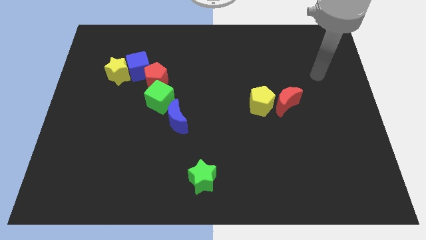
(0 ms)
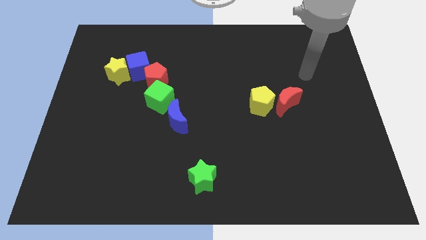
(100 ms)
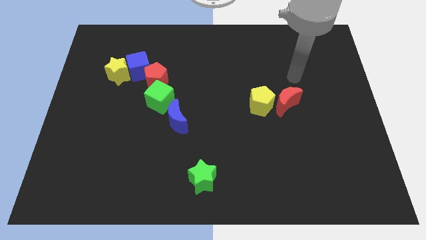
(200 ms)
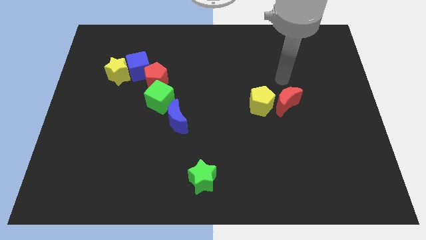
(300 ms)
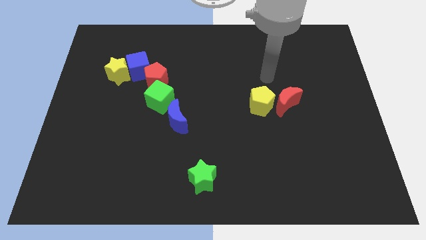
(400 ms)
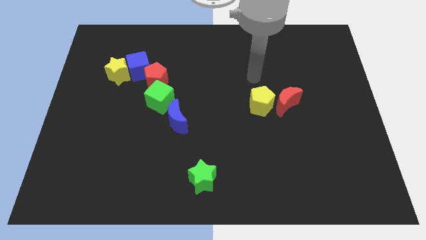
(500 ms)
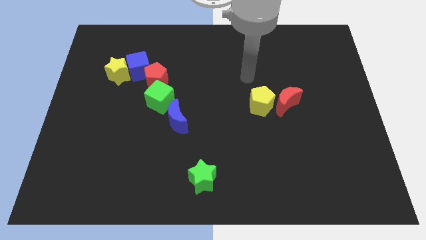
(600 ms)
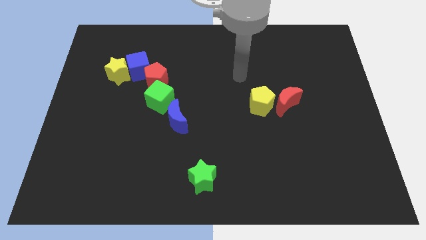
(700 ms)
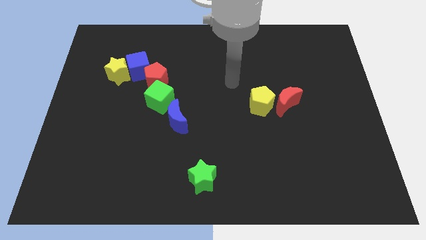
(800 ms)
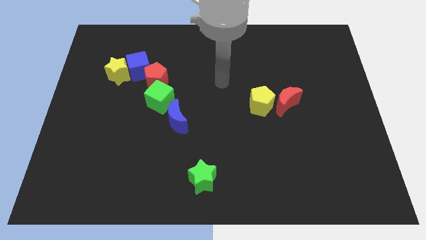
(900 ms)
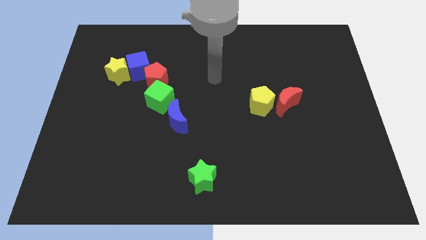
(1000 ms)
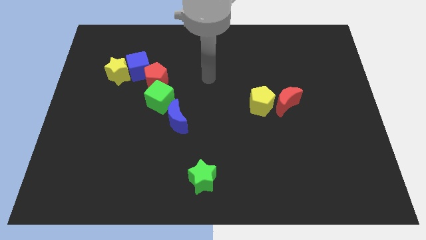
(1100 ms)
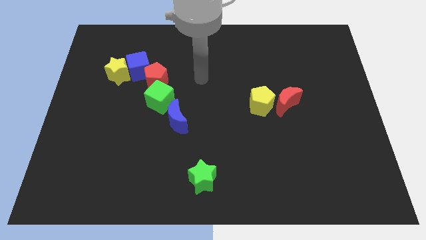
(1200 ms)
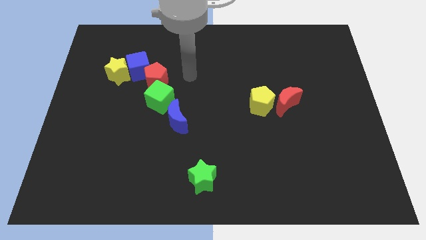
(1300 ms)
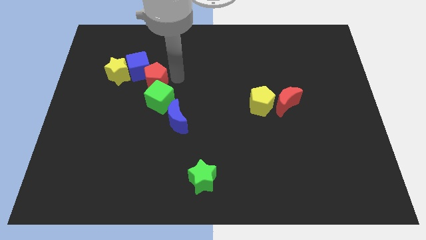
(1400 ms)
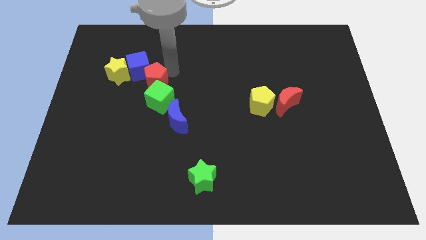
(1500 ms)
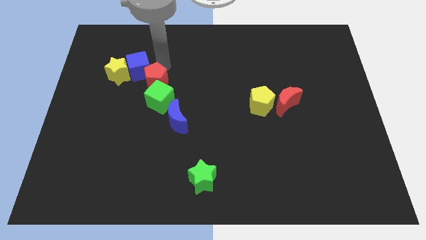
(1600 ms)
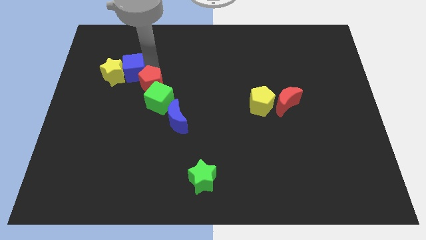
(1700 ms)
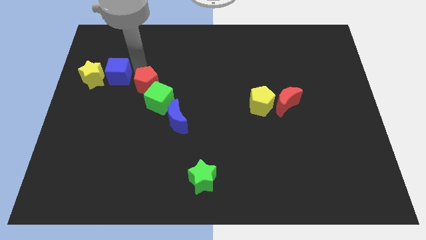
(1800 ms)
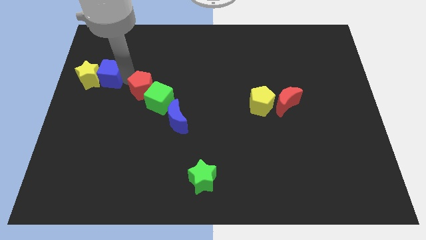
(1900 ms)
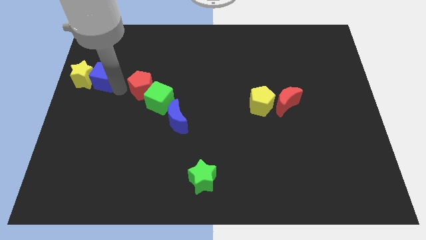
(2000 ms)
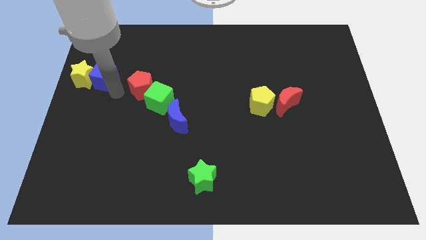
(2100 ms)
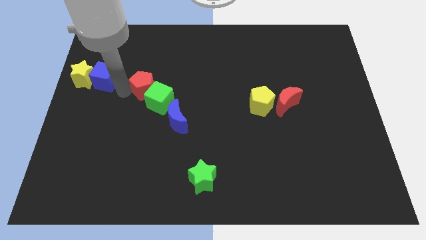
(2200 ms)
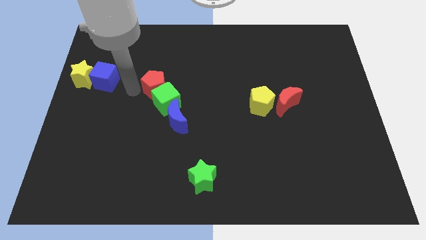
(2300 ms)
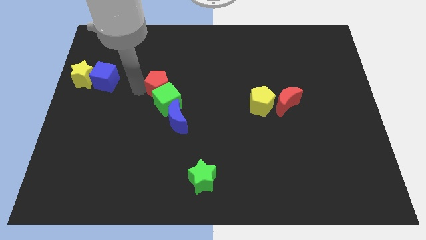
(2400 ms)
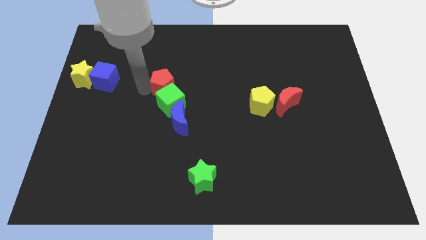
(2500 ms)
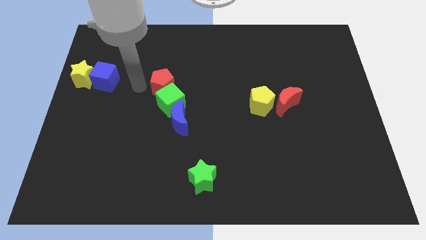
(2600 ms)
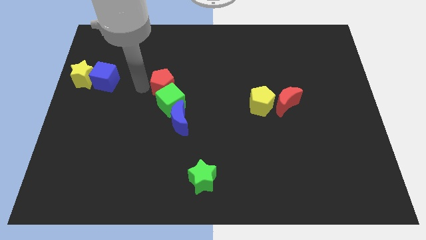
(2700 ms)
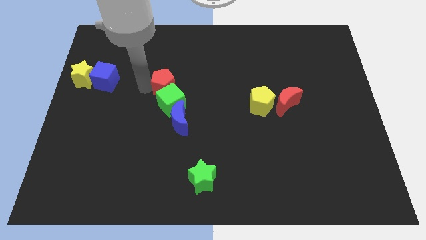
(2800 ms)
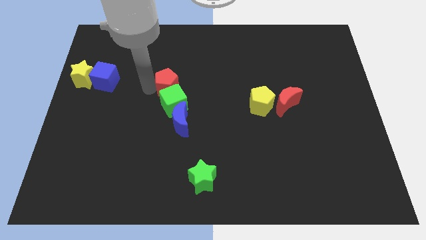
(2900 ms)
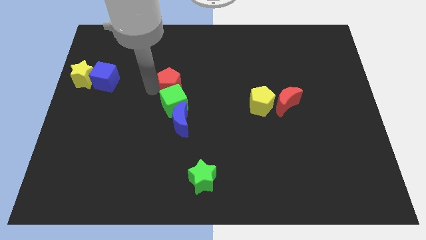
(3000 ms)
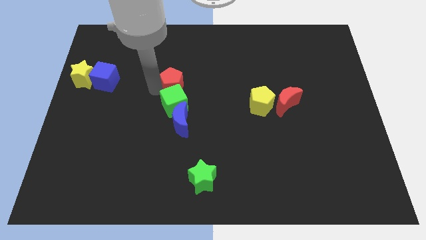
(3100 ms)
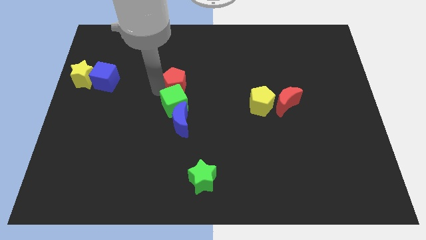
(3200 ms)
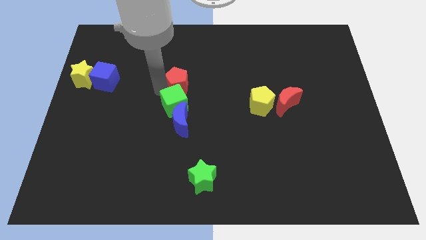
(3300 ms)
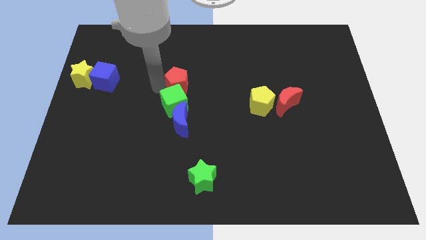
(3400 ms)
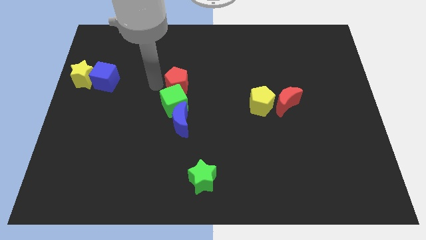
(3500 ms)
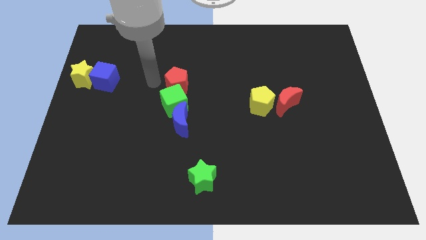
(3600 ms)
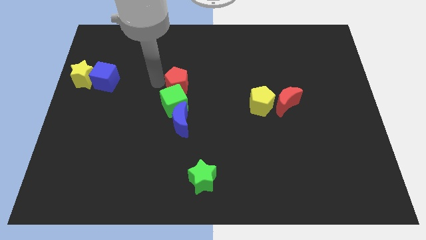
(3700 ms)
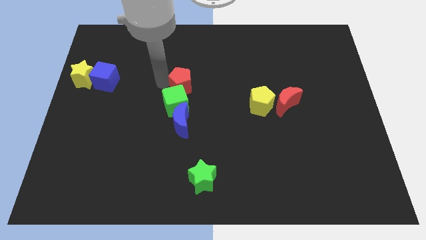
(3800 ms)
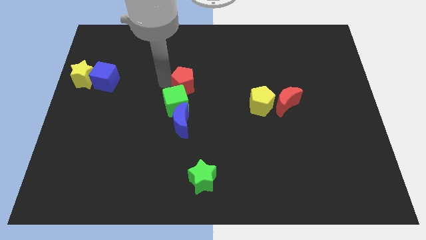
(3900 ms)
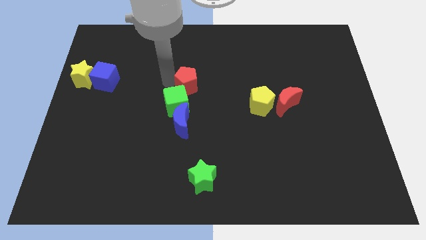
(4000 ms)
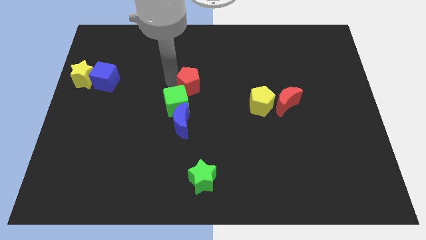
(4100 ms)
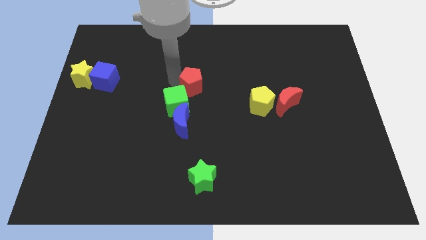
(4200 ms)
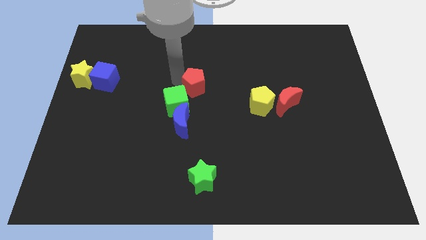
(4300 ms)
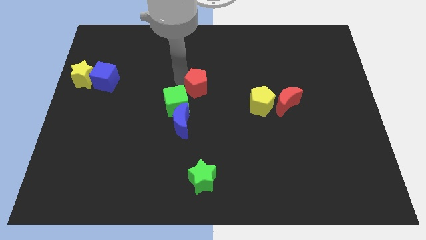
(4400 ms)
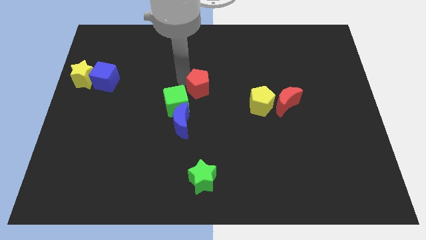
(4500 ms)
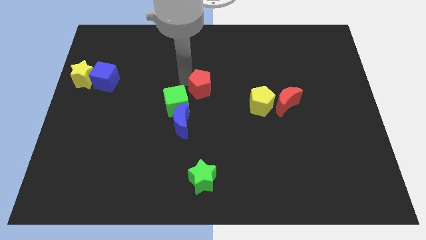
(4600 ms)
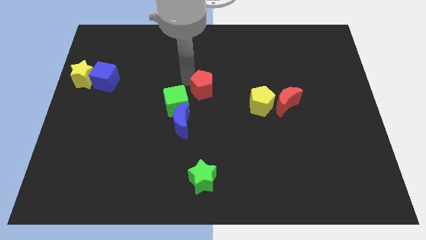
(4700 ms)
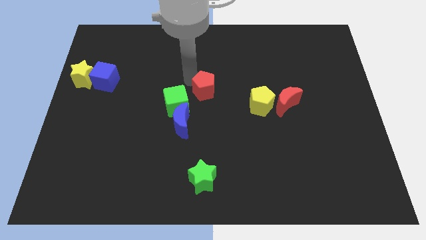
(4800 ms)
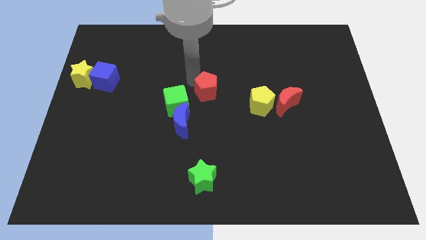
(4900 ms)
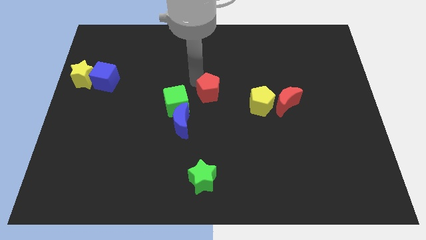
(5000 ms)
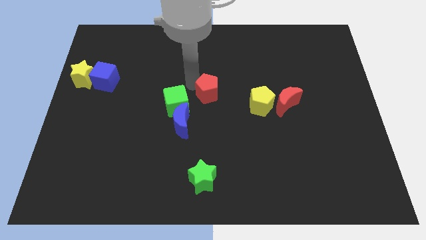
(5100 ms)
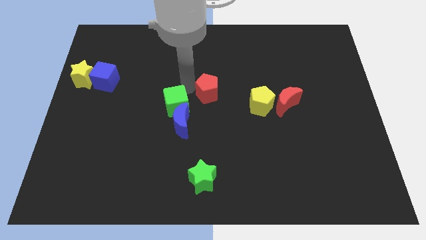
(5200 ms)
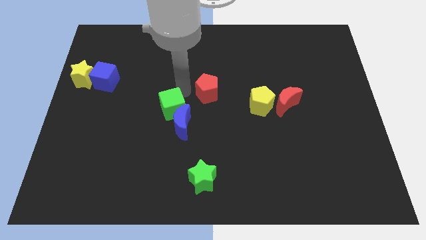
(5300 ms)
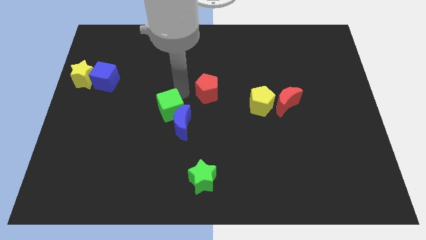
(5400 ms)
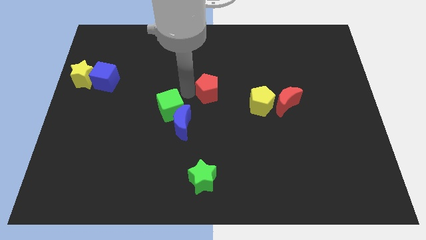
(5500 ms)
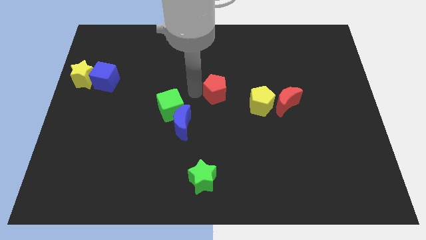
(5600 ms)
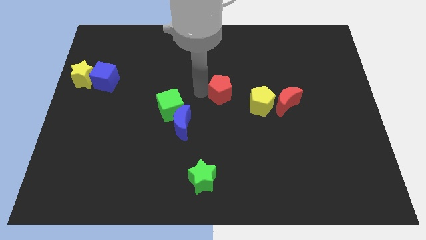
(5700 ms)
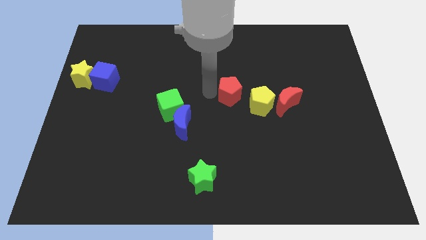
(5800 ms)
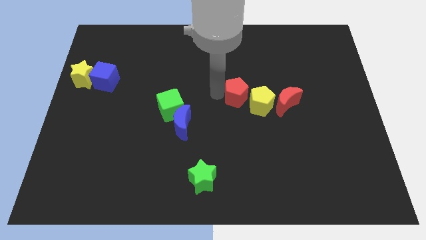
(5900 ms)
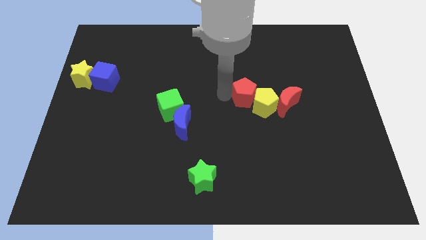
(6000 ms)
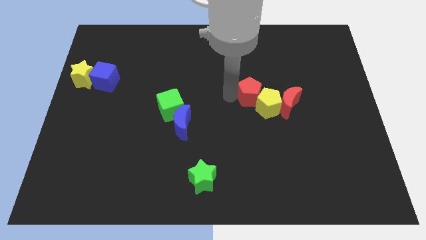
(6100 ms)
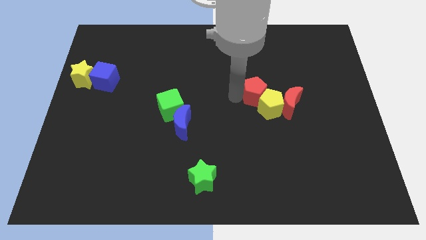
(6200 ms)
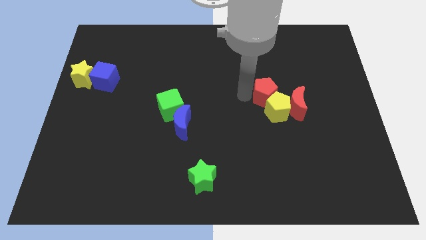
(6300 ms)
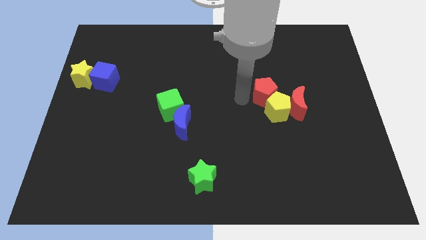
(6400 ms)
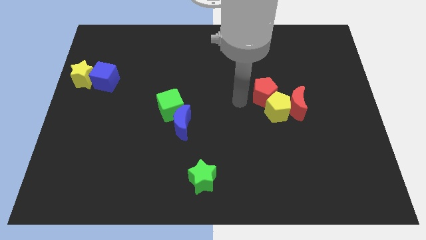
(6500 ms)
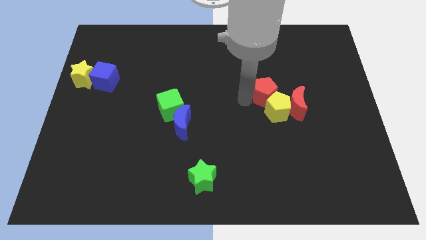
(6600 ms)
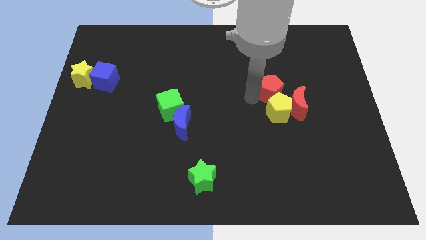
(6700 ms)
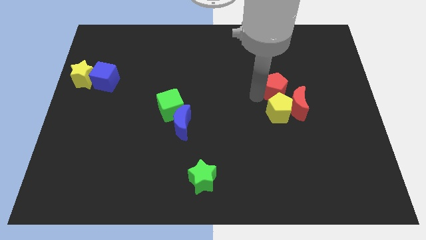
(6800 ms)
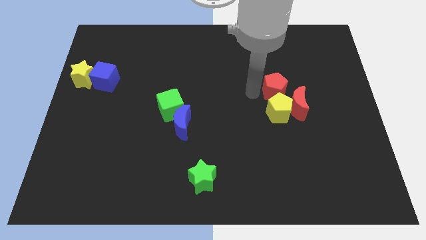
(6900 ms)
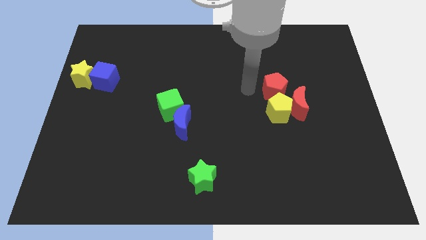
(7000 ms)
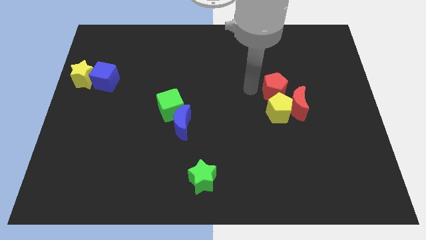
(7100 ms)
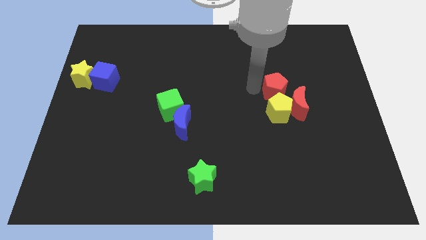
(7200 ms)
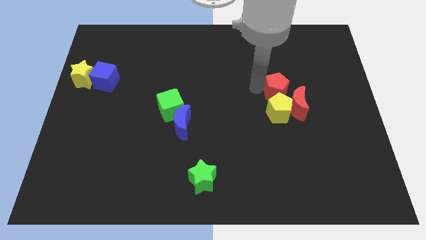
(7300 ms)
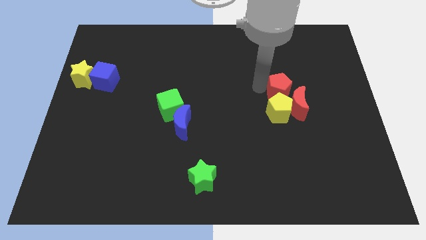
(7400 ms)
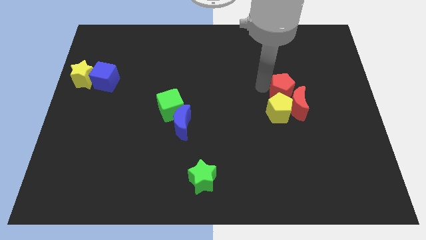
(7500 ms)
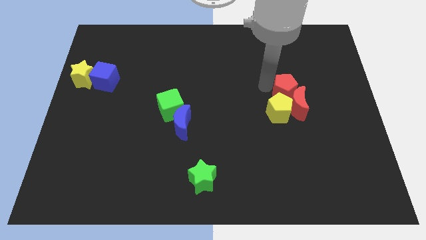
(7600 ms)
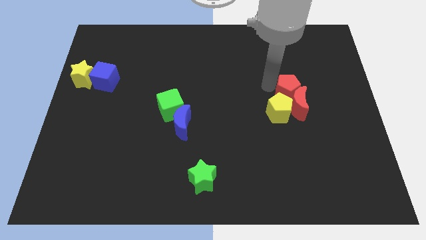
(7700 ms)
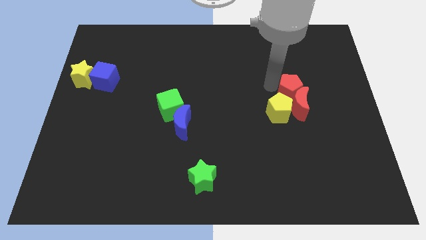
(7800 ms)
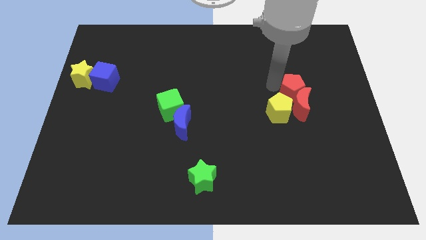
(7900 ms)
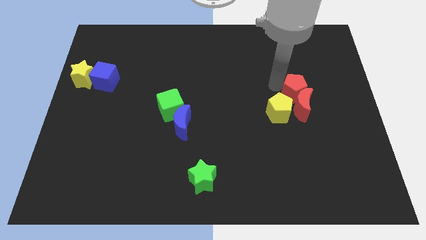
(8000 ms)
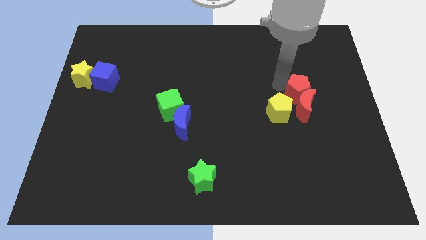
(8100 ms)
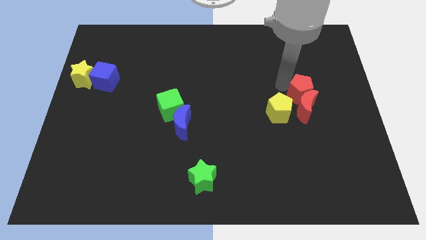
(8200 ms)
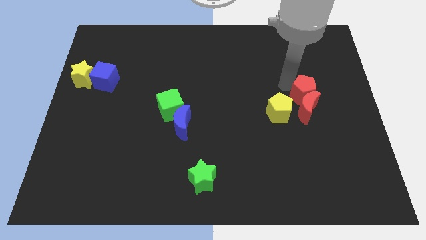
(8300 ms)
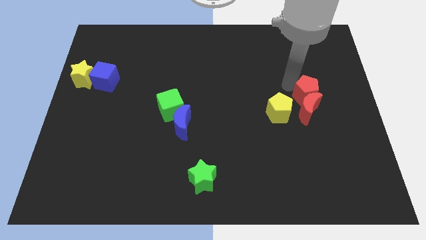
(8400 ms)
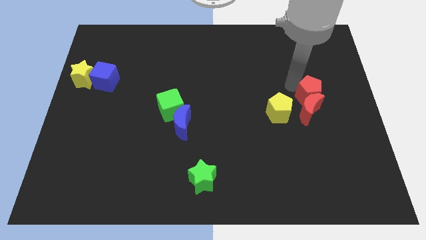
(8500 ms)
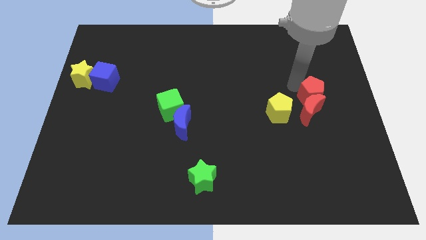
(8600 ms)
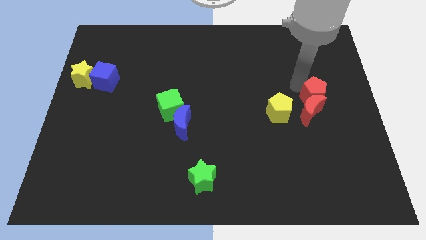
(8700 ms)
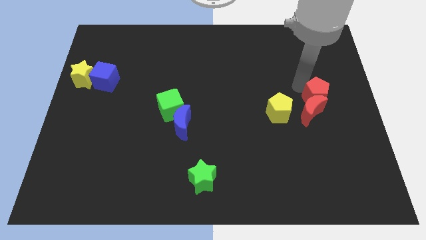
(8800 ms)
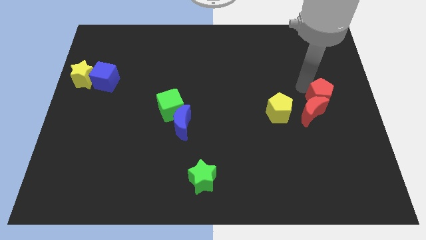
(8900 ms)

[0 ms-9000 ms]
slide the red pentagon to the right side of the board
